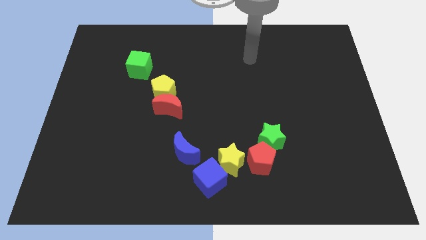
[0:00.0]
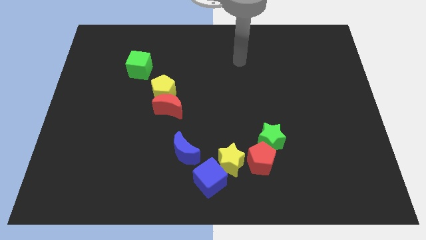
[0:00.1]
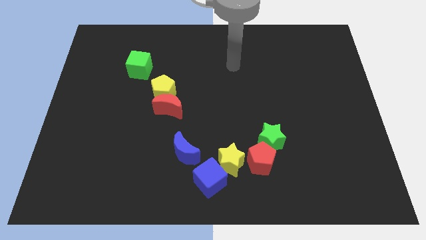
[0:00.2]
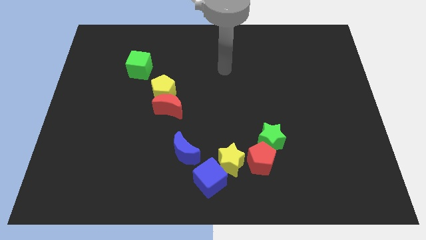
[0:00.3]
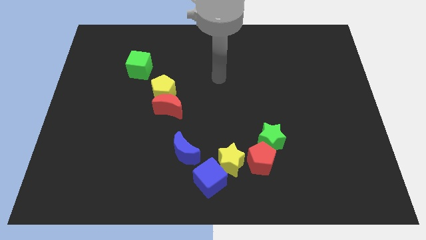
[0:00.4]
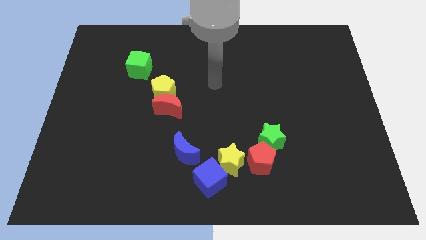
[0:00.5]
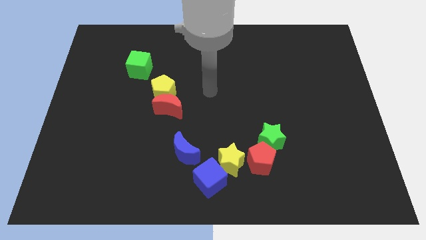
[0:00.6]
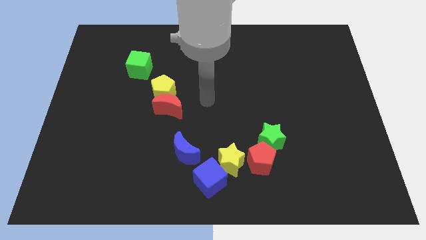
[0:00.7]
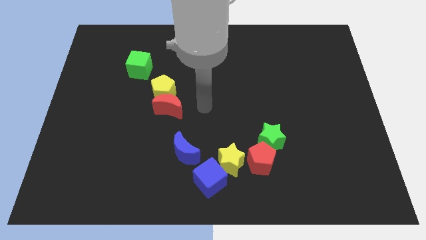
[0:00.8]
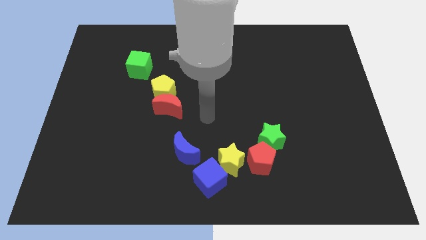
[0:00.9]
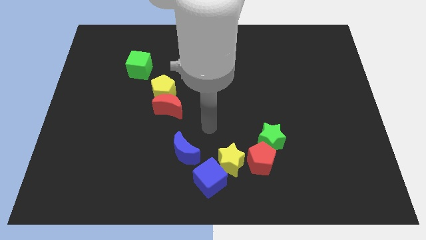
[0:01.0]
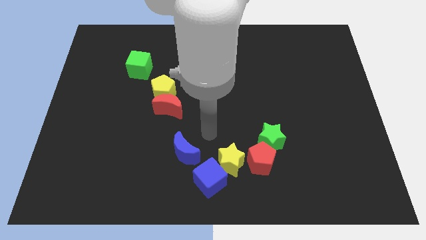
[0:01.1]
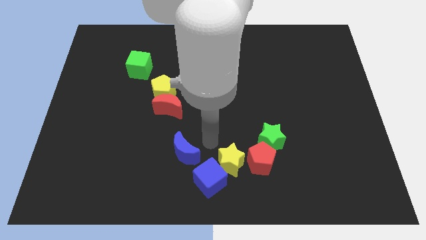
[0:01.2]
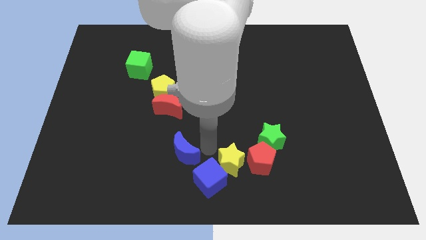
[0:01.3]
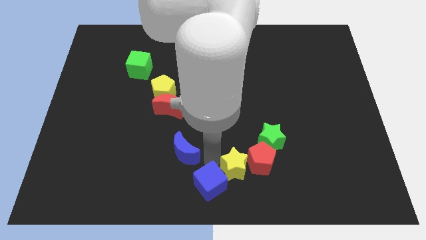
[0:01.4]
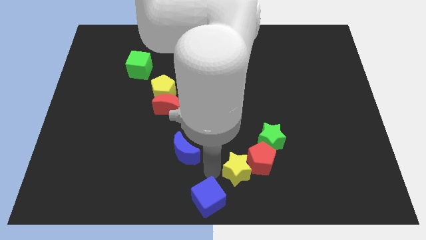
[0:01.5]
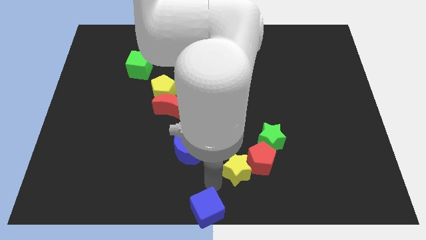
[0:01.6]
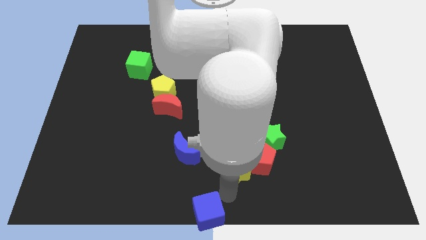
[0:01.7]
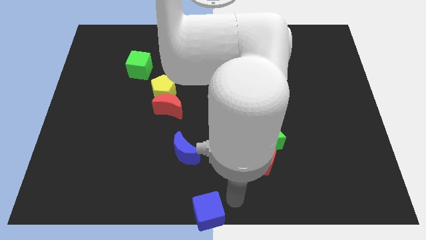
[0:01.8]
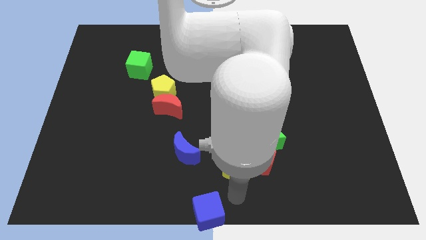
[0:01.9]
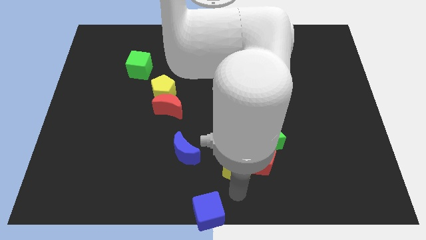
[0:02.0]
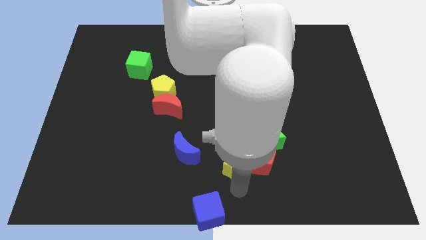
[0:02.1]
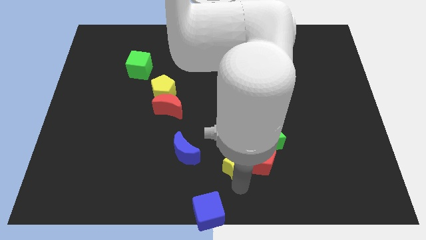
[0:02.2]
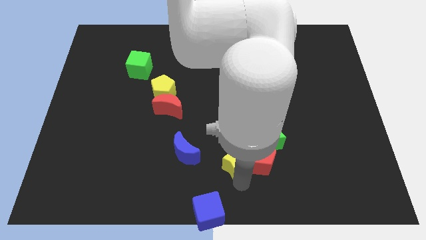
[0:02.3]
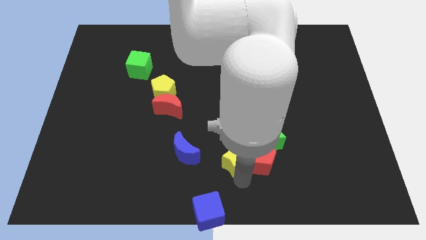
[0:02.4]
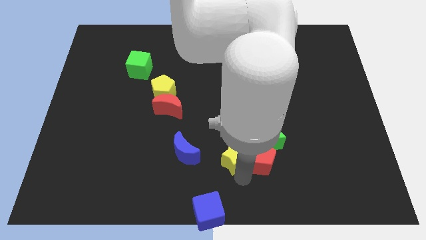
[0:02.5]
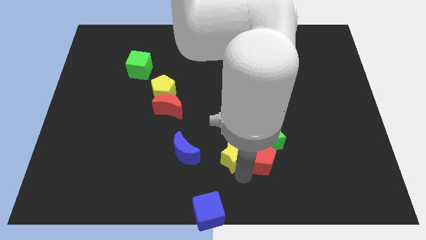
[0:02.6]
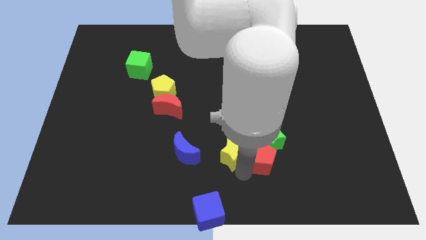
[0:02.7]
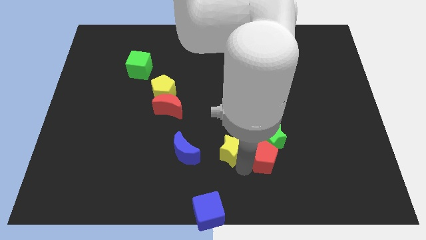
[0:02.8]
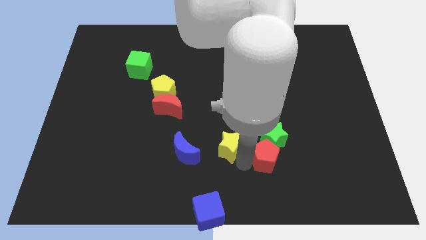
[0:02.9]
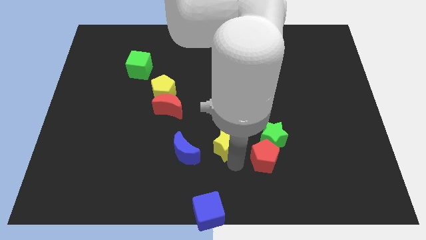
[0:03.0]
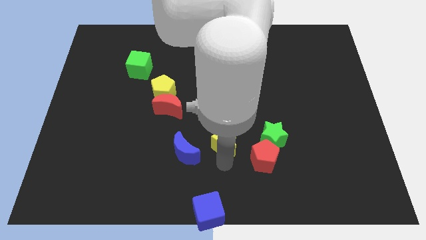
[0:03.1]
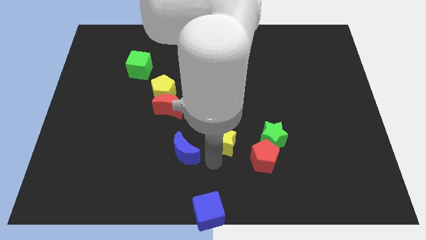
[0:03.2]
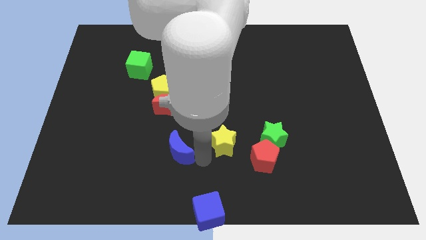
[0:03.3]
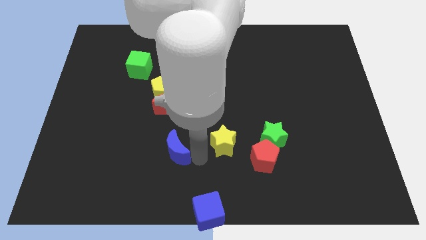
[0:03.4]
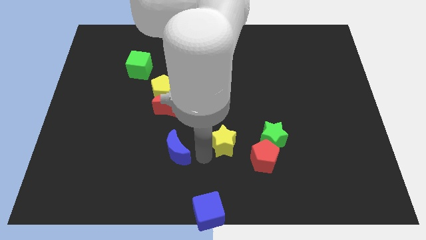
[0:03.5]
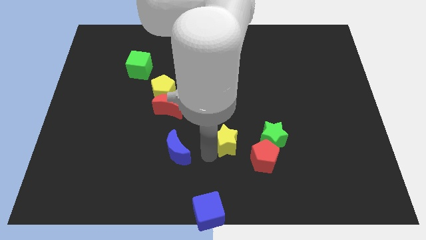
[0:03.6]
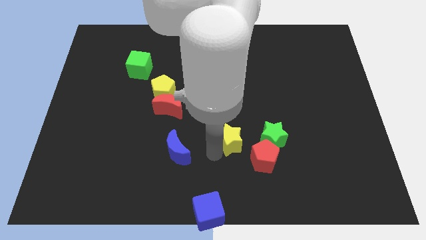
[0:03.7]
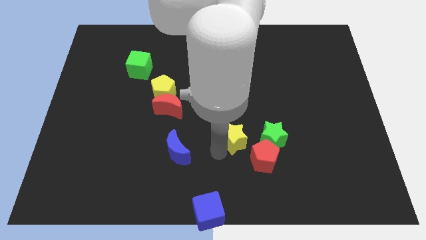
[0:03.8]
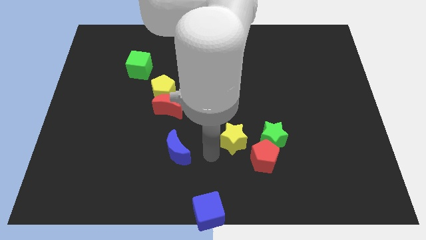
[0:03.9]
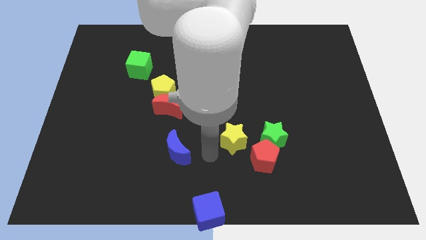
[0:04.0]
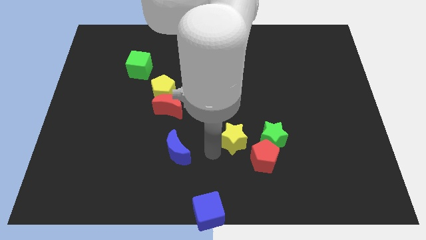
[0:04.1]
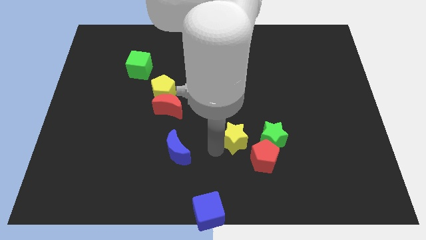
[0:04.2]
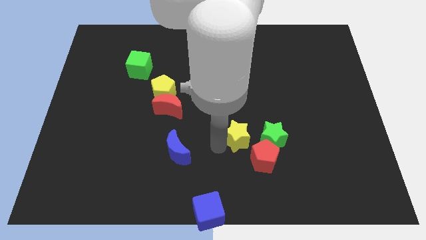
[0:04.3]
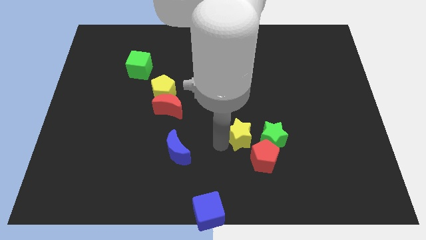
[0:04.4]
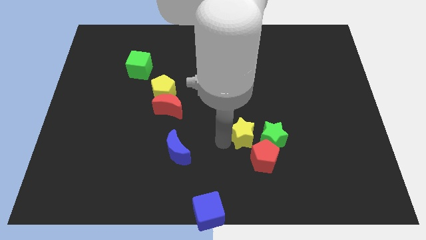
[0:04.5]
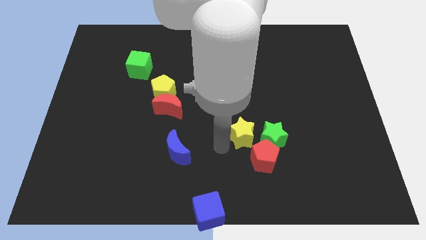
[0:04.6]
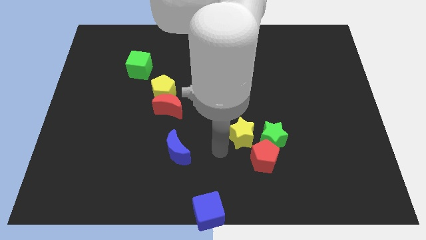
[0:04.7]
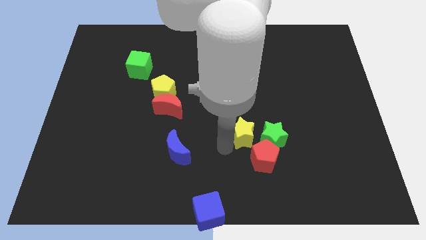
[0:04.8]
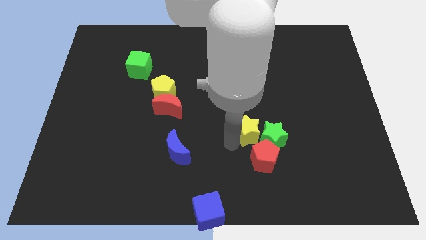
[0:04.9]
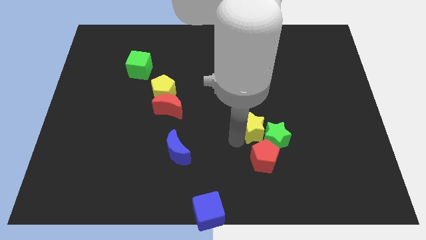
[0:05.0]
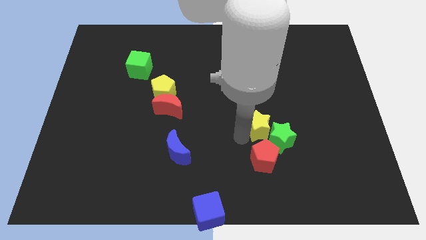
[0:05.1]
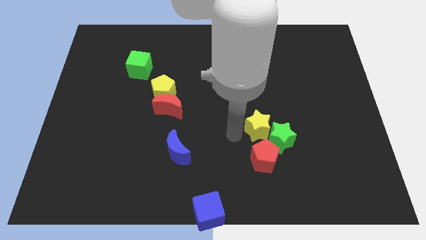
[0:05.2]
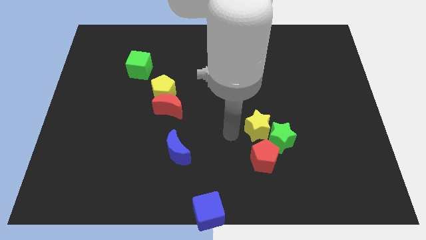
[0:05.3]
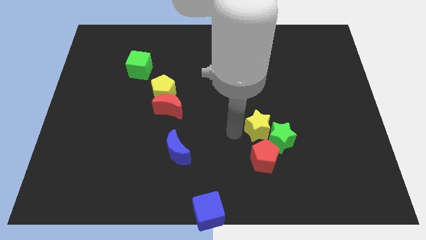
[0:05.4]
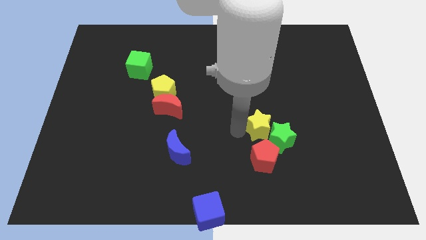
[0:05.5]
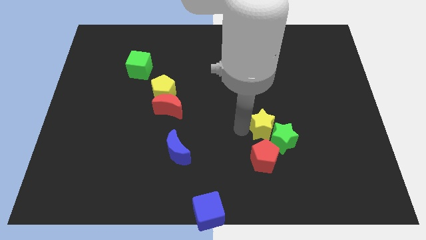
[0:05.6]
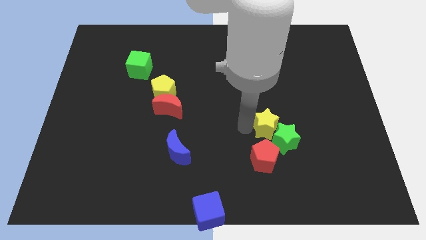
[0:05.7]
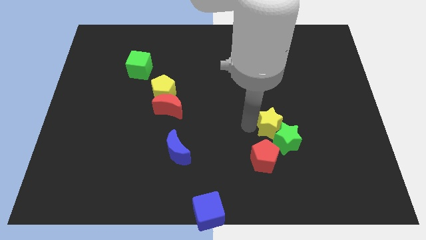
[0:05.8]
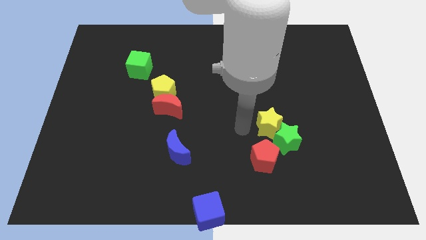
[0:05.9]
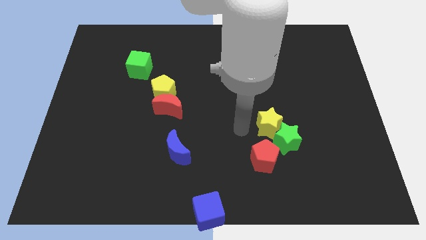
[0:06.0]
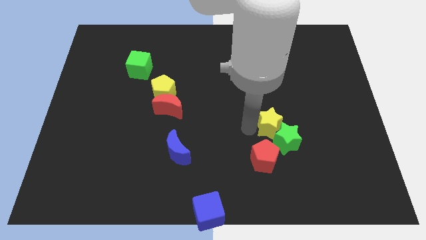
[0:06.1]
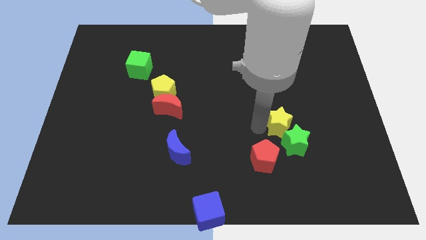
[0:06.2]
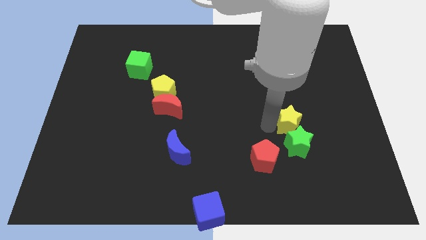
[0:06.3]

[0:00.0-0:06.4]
put the yellow star to the top right of the green star
